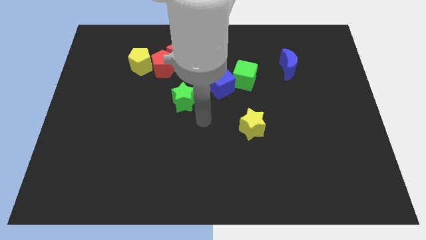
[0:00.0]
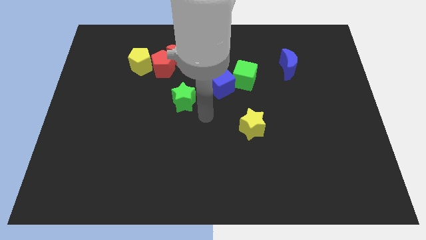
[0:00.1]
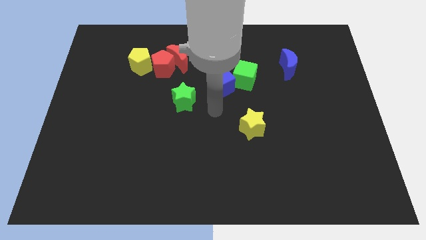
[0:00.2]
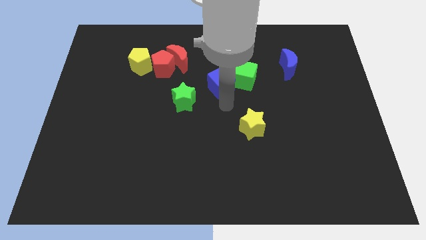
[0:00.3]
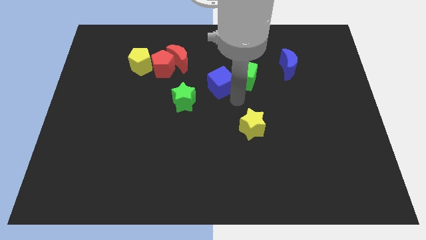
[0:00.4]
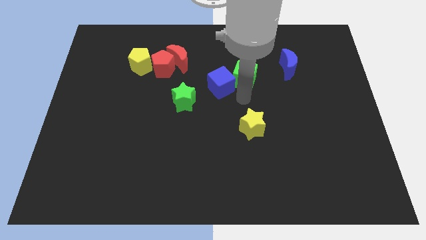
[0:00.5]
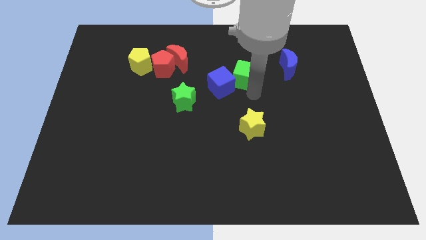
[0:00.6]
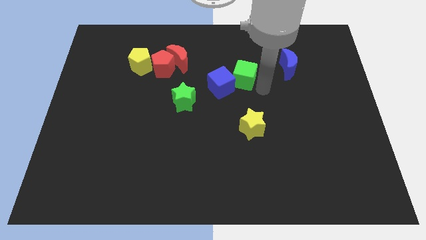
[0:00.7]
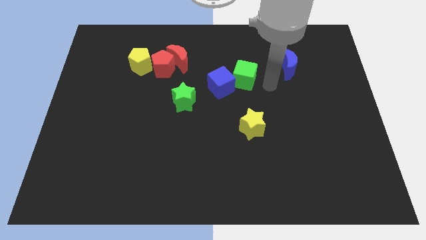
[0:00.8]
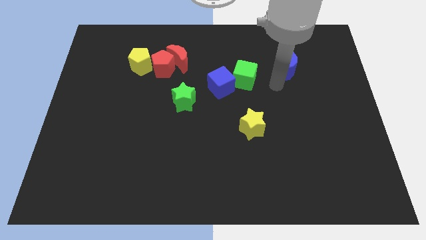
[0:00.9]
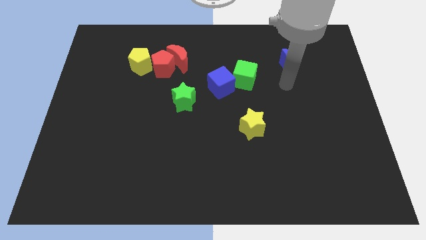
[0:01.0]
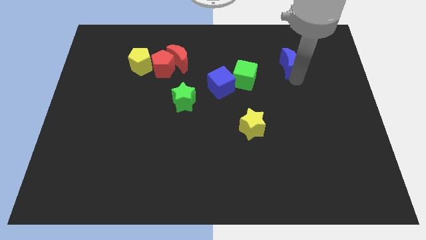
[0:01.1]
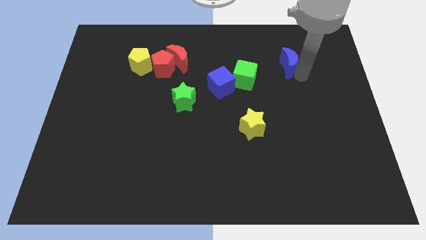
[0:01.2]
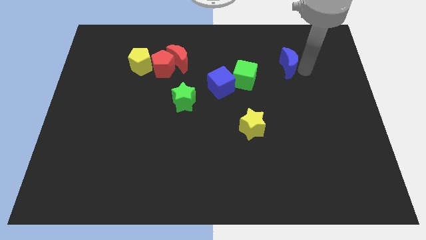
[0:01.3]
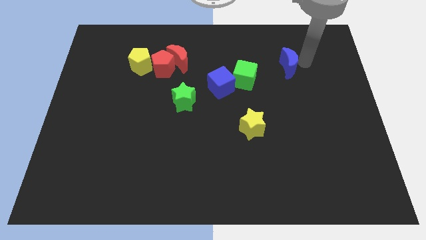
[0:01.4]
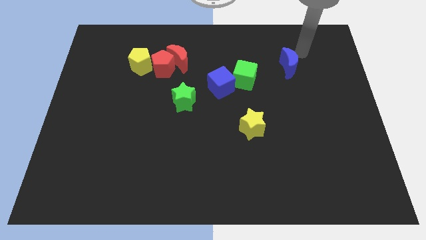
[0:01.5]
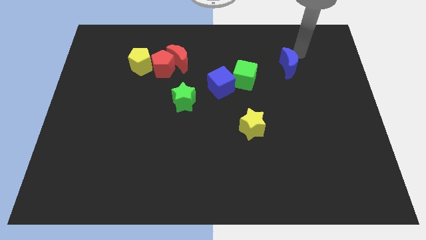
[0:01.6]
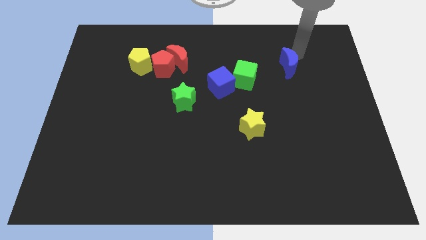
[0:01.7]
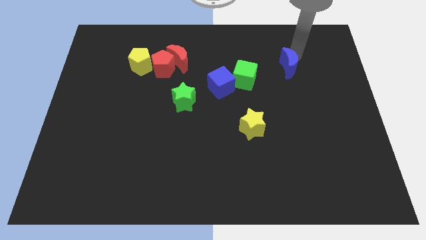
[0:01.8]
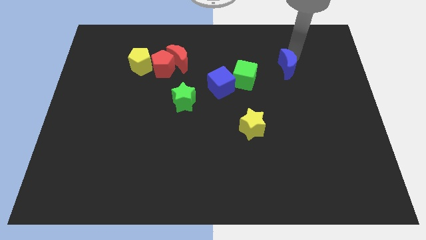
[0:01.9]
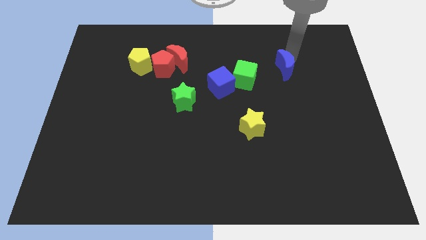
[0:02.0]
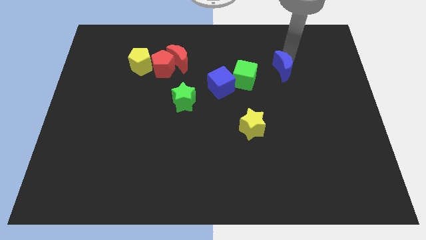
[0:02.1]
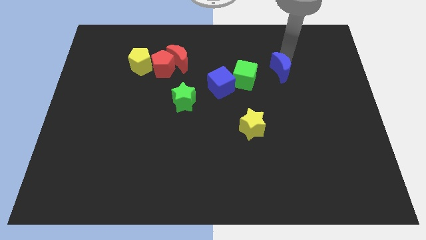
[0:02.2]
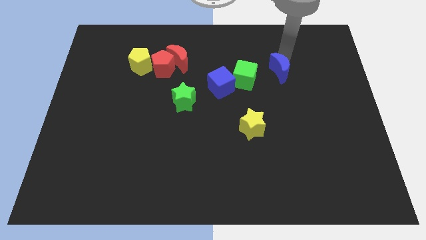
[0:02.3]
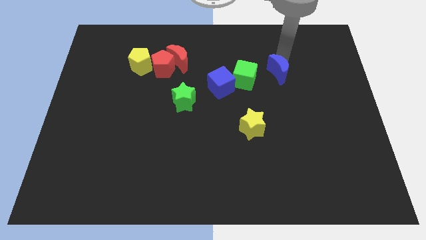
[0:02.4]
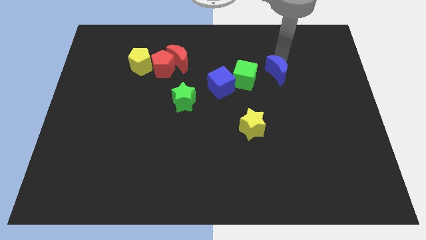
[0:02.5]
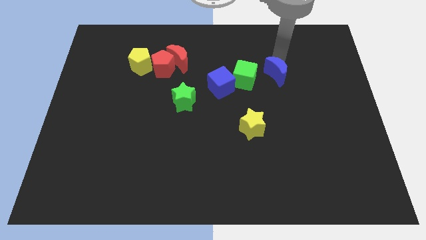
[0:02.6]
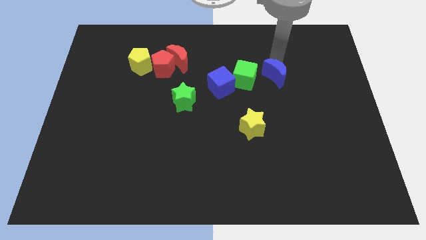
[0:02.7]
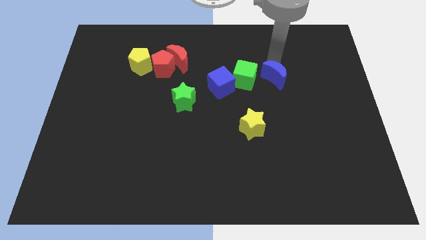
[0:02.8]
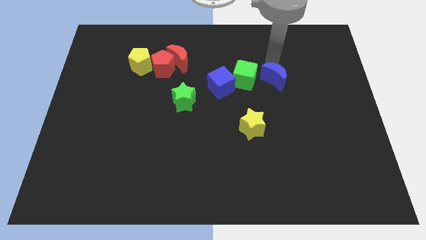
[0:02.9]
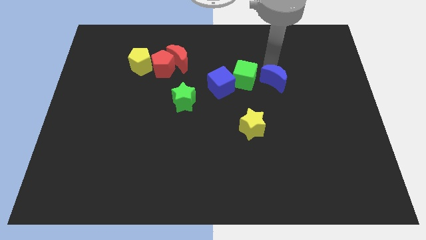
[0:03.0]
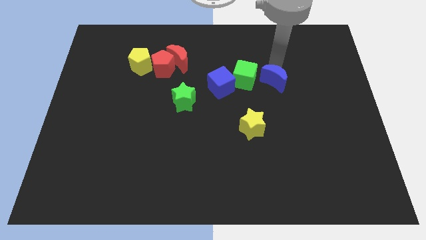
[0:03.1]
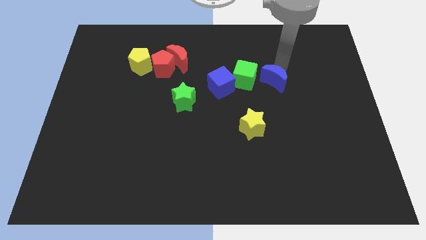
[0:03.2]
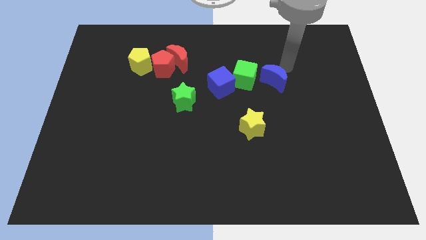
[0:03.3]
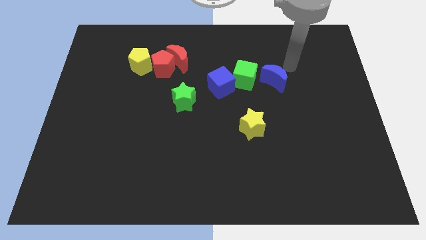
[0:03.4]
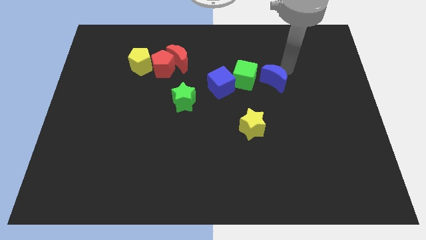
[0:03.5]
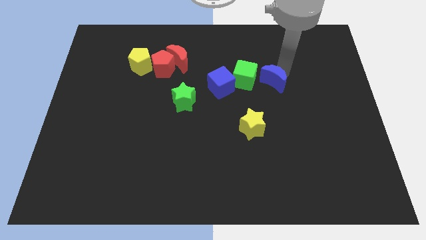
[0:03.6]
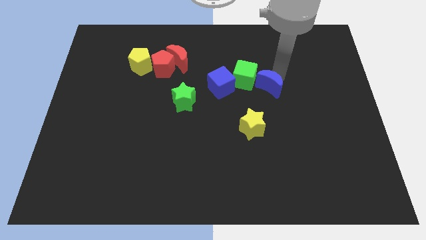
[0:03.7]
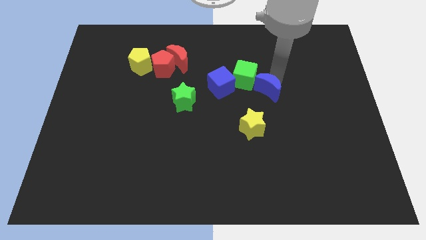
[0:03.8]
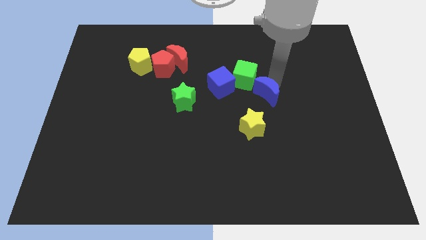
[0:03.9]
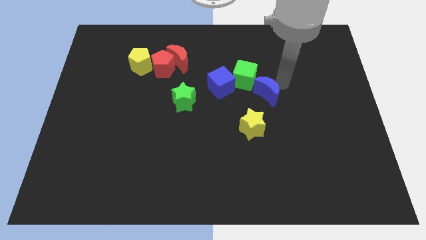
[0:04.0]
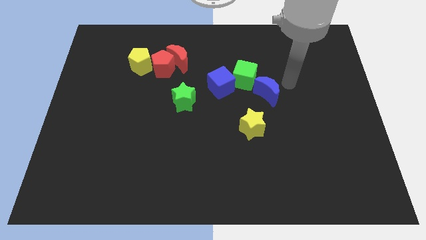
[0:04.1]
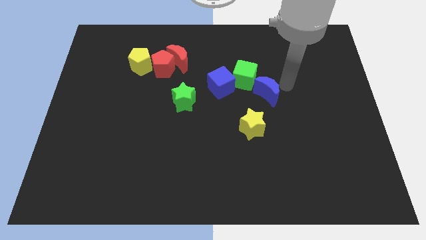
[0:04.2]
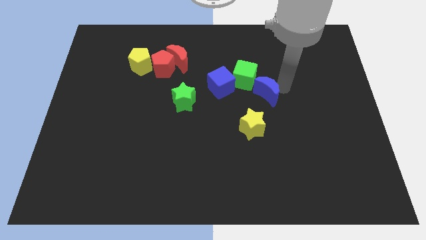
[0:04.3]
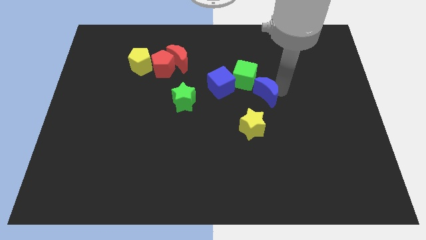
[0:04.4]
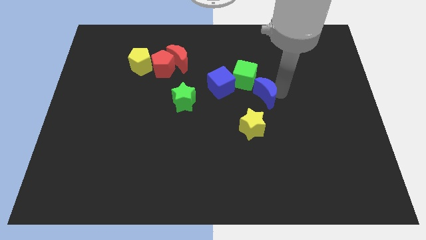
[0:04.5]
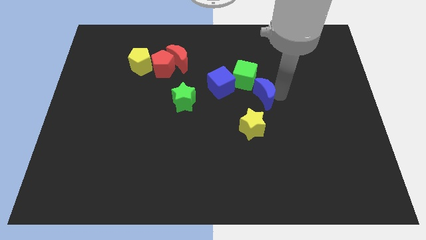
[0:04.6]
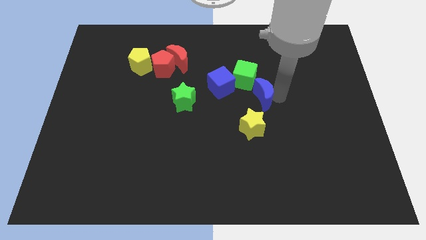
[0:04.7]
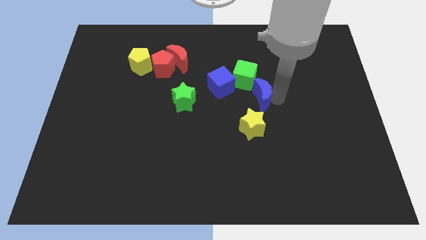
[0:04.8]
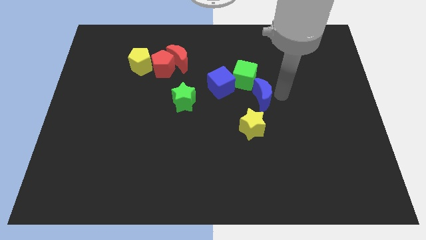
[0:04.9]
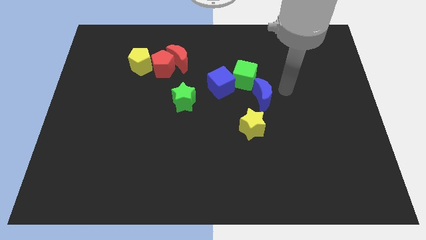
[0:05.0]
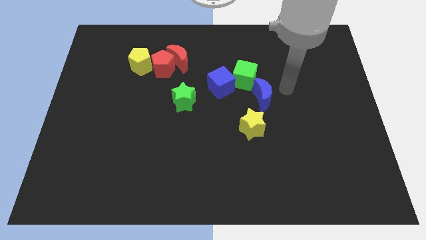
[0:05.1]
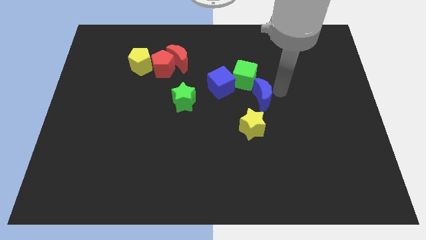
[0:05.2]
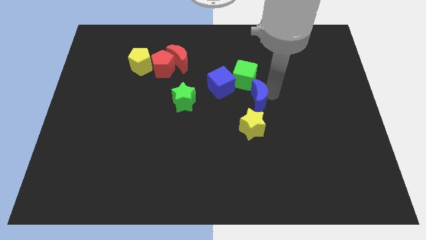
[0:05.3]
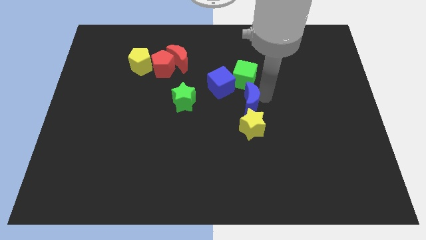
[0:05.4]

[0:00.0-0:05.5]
put the blue moon to the top left side of the yellow star

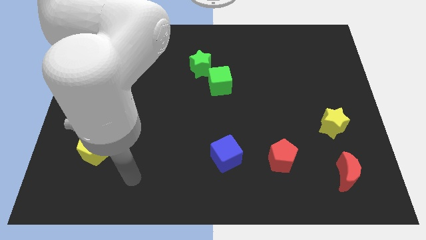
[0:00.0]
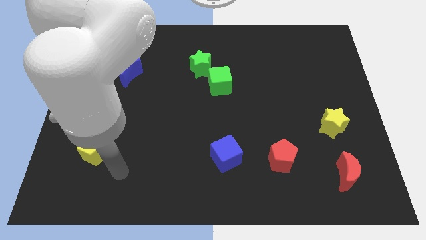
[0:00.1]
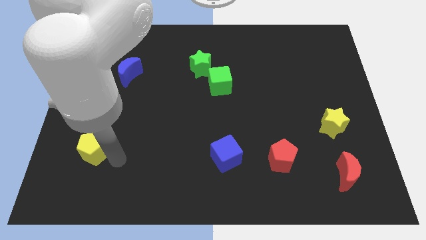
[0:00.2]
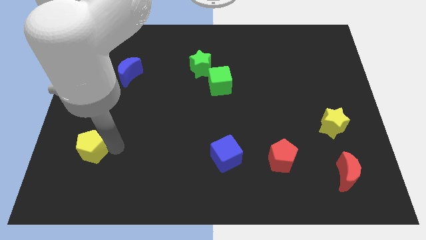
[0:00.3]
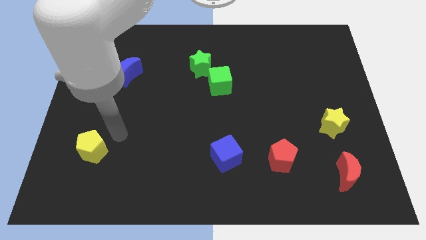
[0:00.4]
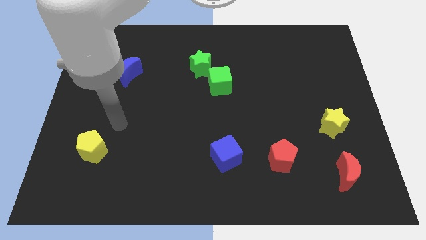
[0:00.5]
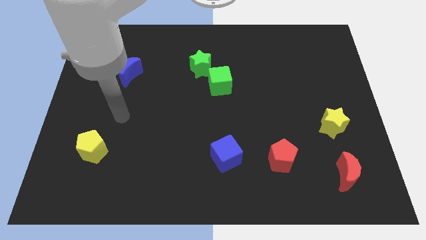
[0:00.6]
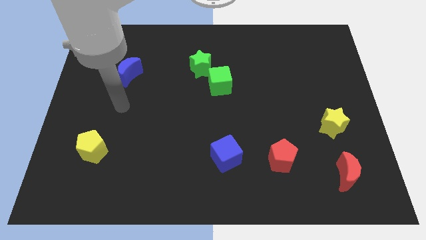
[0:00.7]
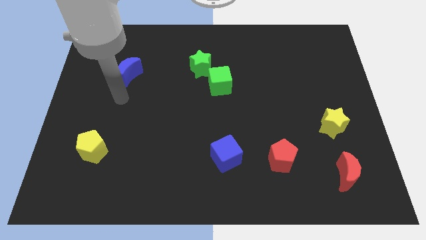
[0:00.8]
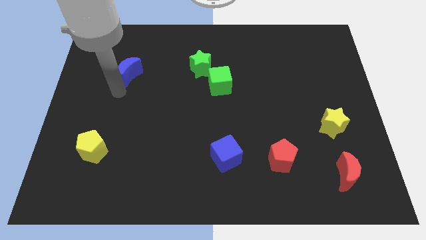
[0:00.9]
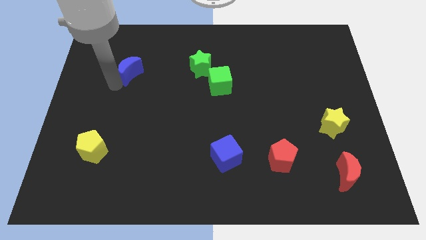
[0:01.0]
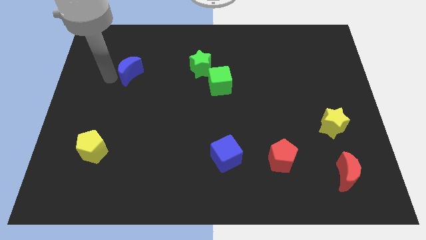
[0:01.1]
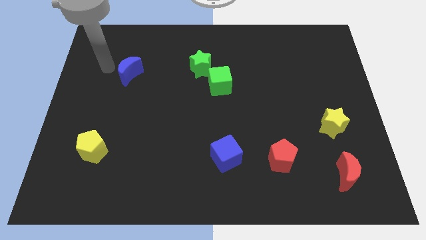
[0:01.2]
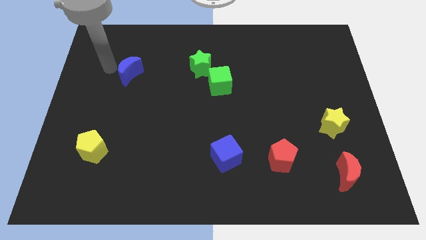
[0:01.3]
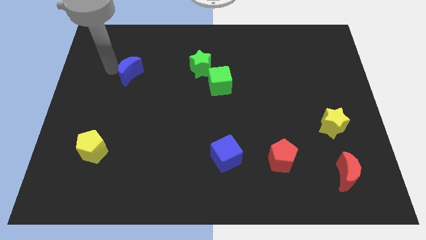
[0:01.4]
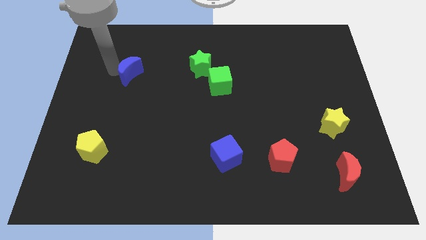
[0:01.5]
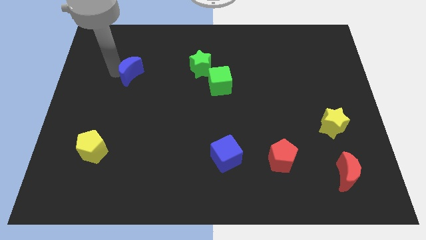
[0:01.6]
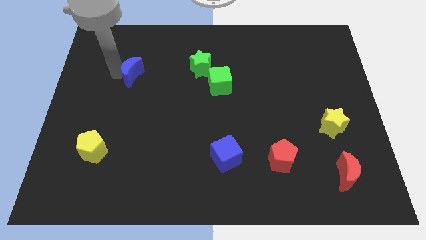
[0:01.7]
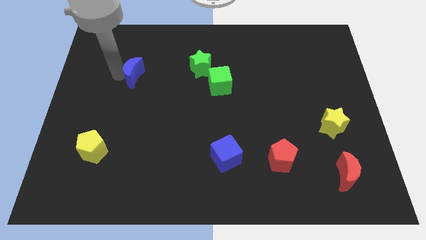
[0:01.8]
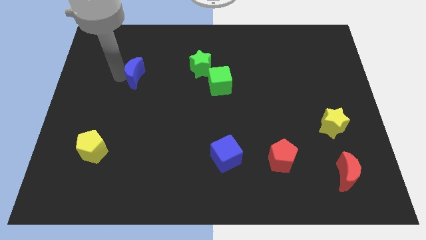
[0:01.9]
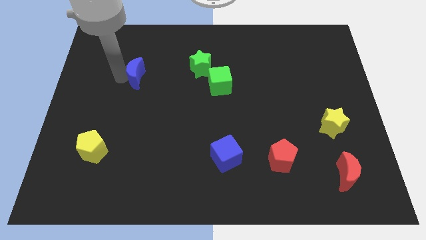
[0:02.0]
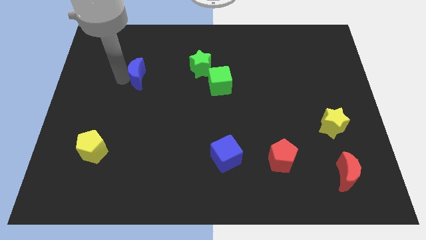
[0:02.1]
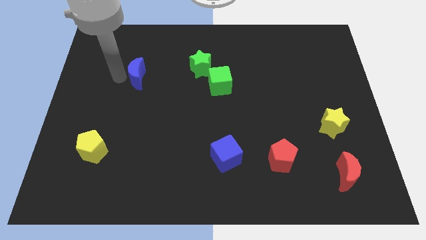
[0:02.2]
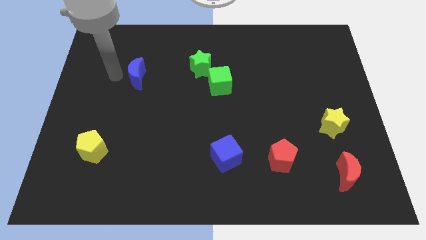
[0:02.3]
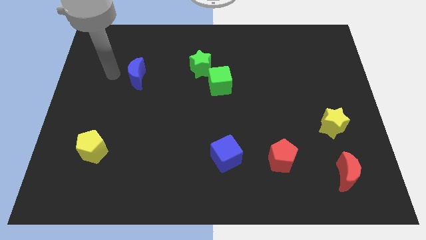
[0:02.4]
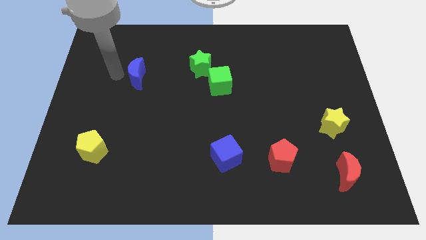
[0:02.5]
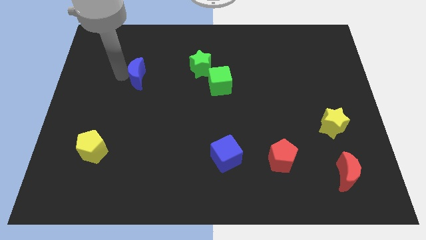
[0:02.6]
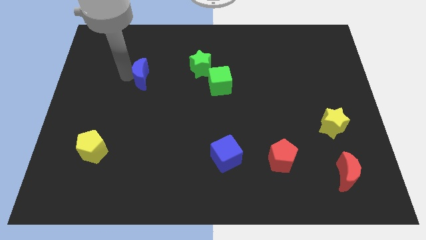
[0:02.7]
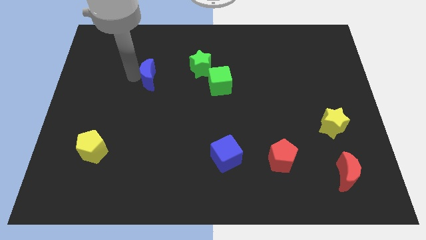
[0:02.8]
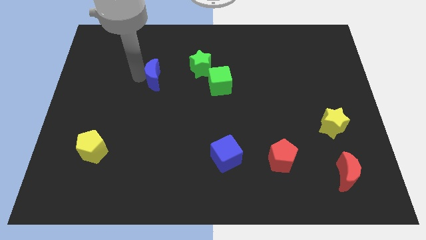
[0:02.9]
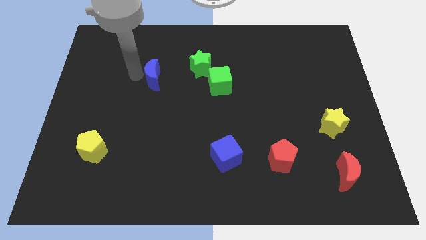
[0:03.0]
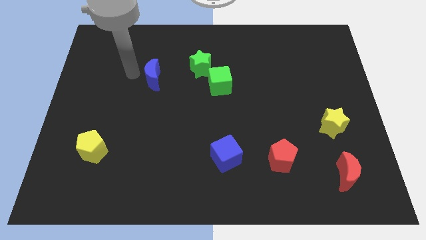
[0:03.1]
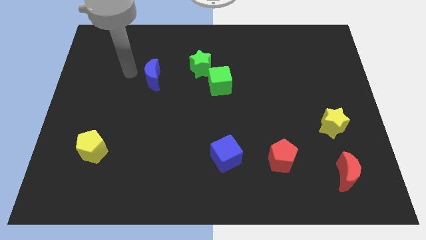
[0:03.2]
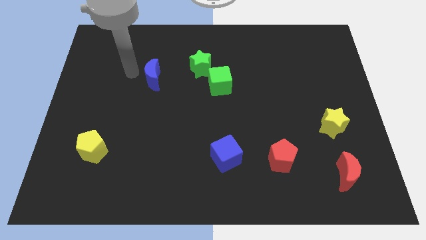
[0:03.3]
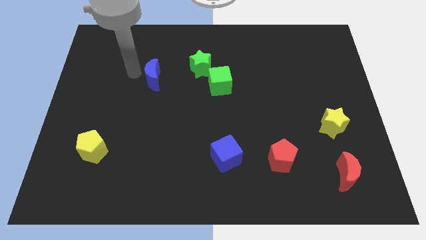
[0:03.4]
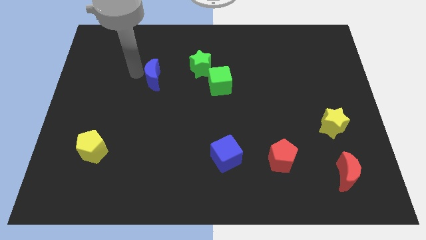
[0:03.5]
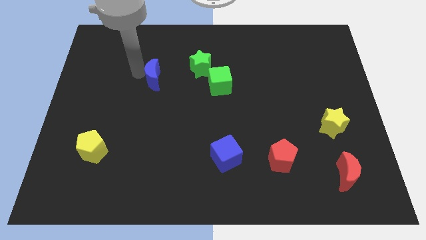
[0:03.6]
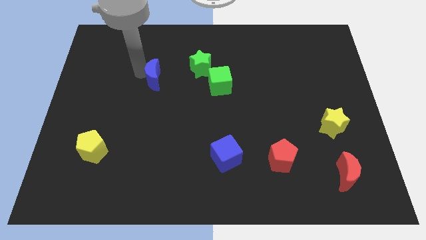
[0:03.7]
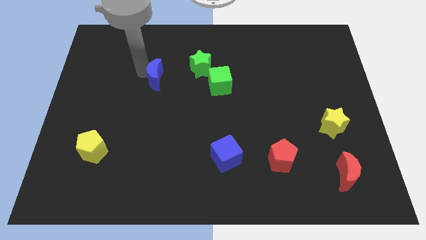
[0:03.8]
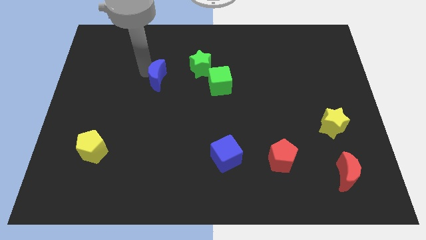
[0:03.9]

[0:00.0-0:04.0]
put the blue moon just left of the green cube
